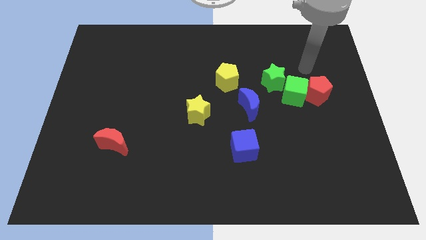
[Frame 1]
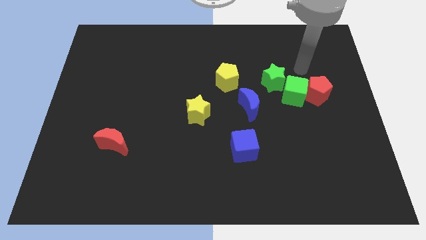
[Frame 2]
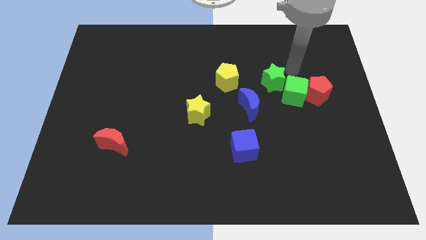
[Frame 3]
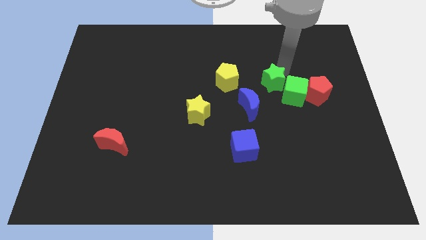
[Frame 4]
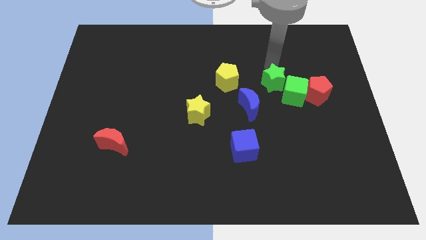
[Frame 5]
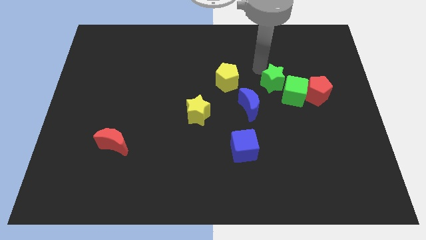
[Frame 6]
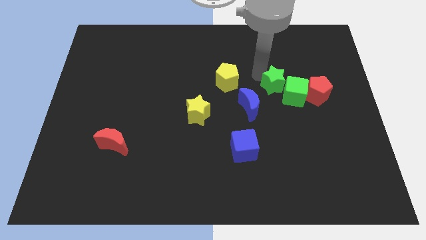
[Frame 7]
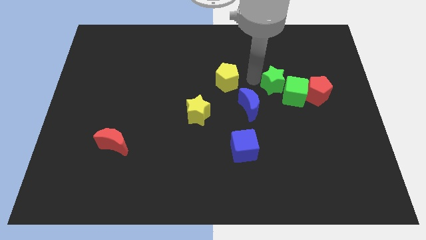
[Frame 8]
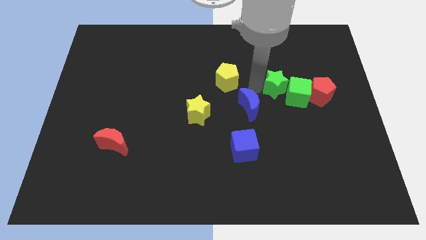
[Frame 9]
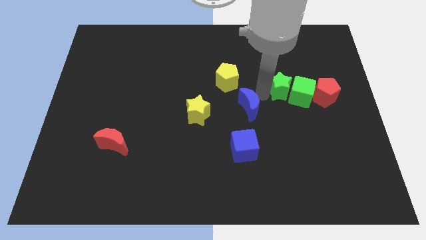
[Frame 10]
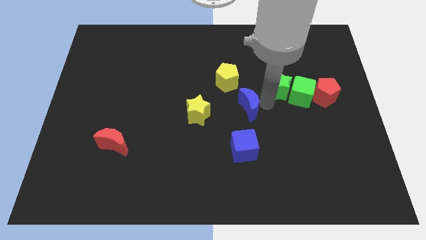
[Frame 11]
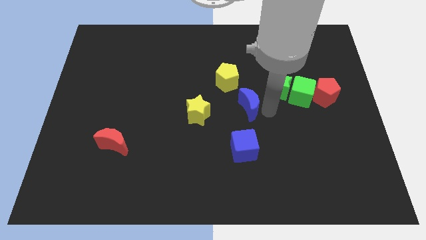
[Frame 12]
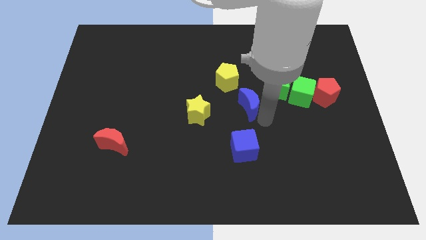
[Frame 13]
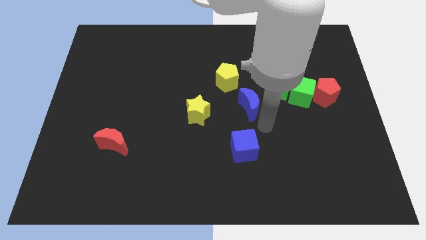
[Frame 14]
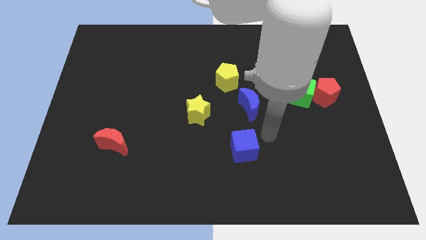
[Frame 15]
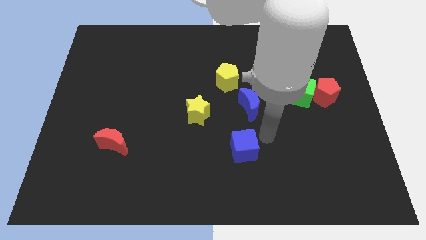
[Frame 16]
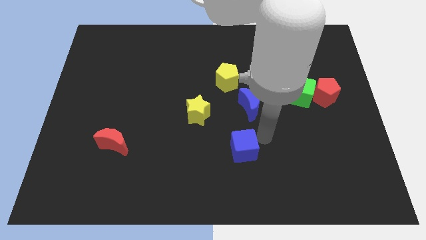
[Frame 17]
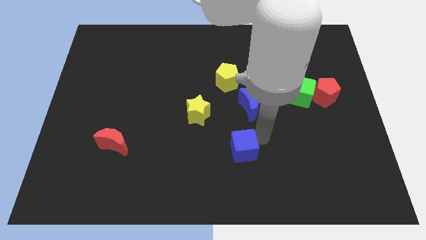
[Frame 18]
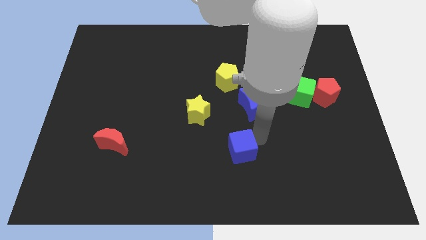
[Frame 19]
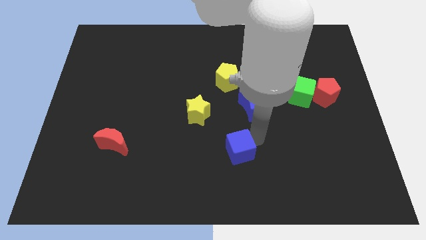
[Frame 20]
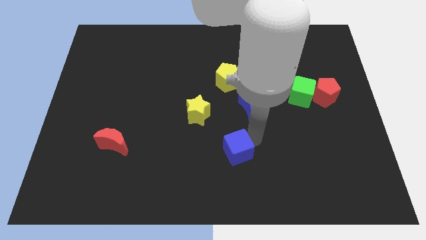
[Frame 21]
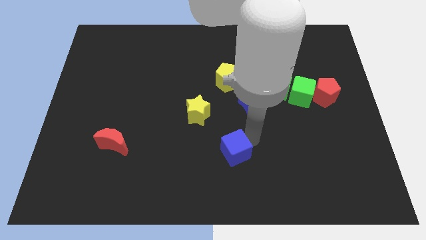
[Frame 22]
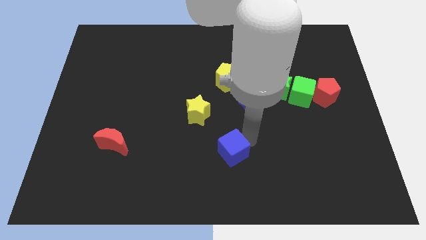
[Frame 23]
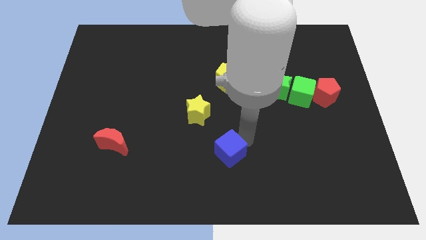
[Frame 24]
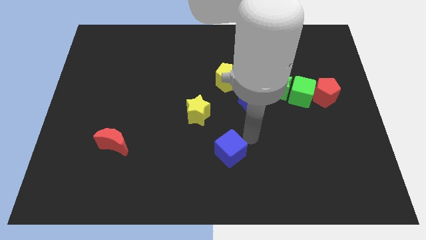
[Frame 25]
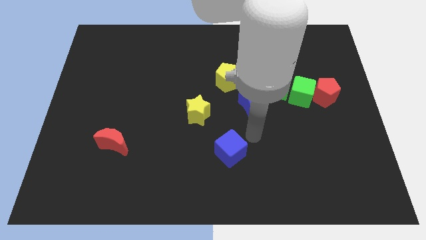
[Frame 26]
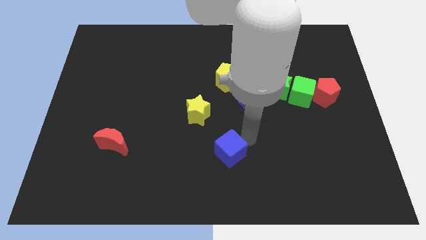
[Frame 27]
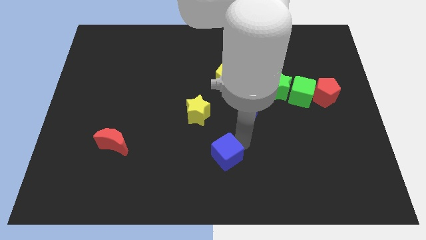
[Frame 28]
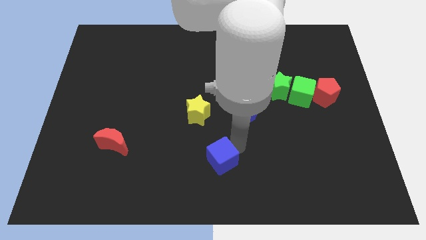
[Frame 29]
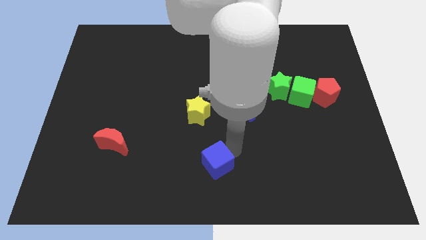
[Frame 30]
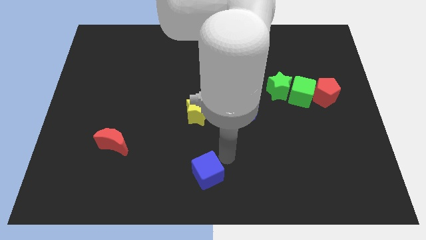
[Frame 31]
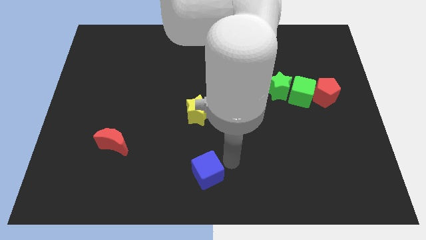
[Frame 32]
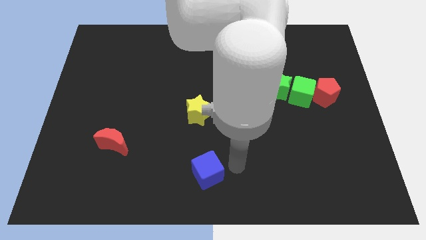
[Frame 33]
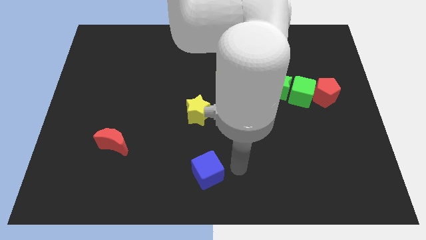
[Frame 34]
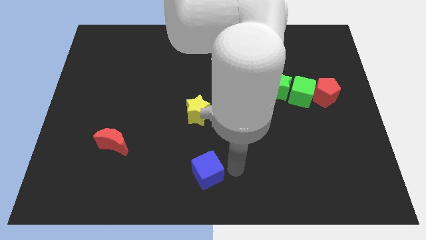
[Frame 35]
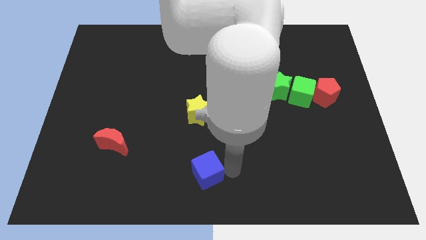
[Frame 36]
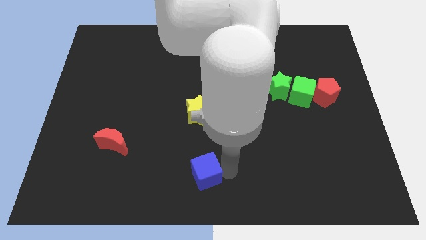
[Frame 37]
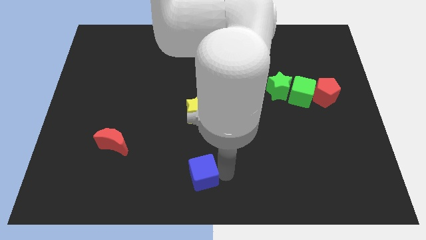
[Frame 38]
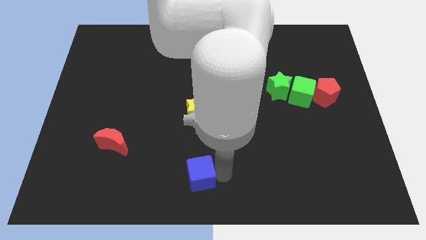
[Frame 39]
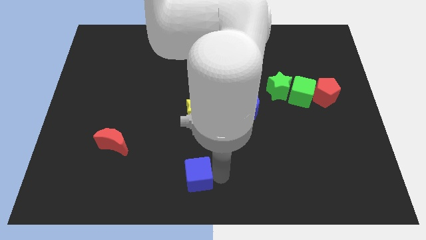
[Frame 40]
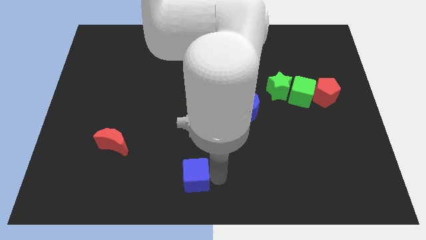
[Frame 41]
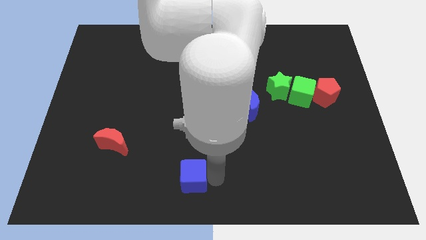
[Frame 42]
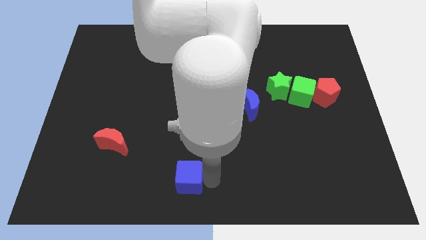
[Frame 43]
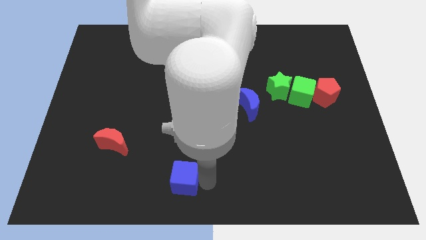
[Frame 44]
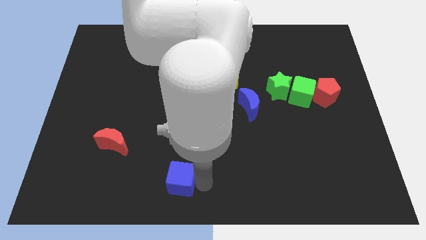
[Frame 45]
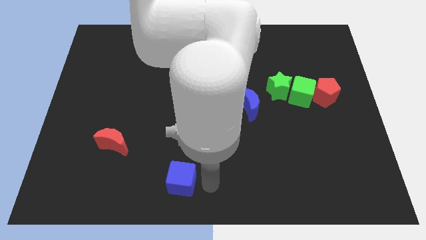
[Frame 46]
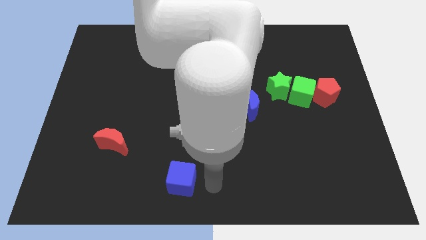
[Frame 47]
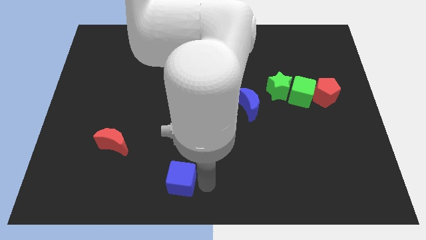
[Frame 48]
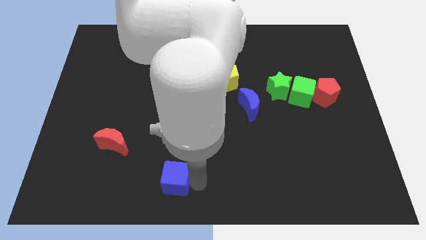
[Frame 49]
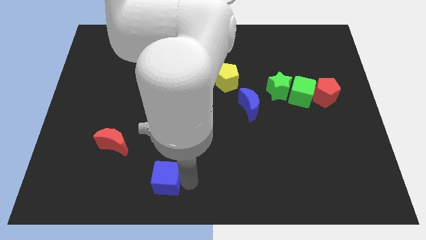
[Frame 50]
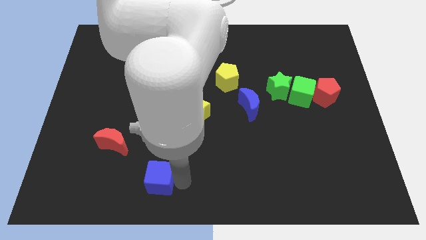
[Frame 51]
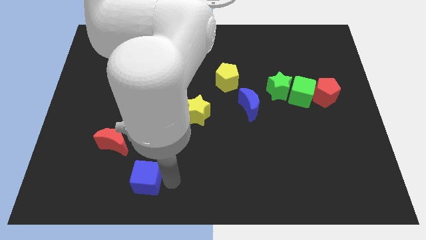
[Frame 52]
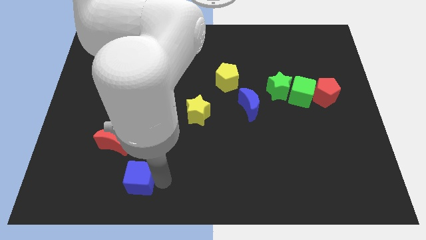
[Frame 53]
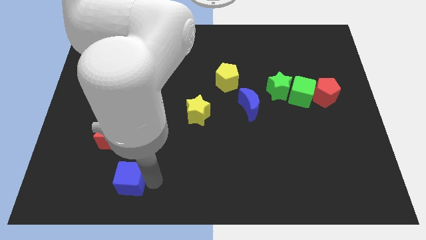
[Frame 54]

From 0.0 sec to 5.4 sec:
move the blue cube left

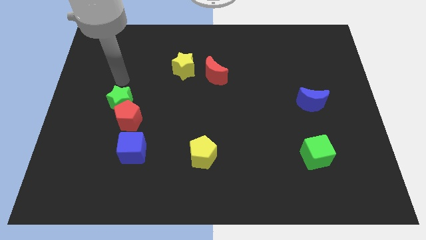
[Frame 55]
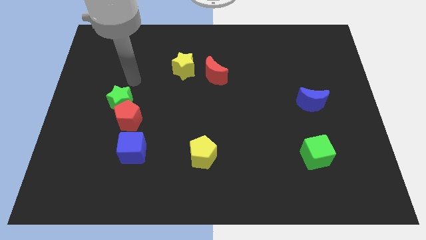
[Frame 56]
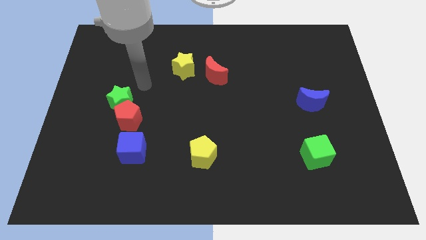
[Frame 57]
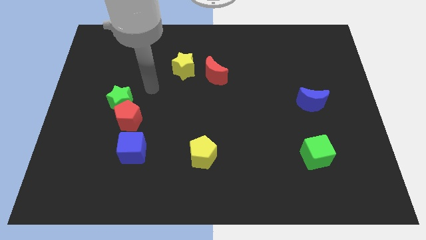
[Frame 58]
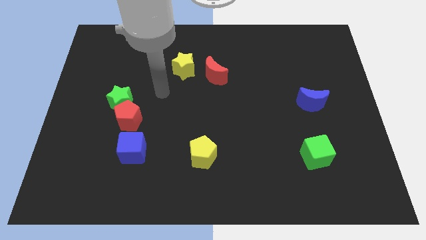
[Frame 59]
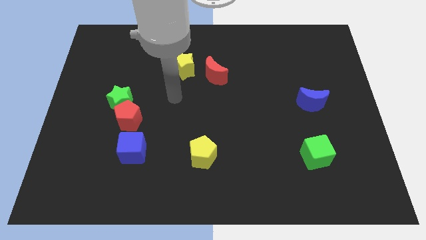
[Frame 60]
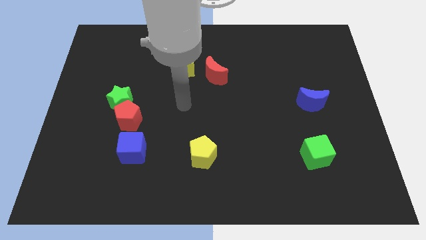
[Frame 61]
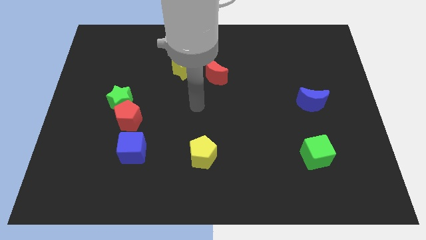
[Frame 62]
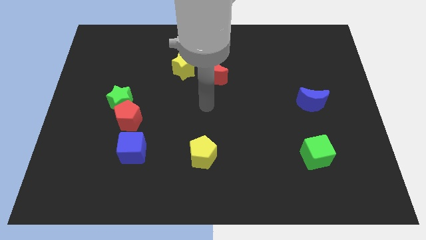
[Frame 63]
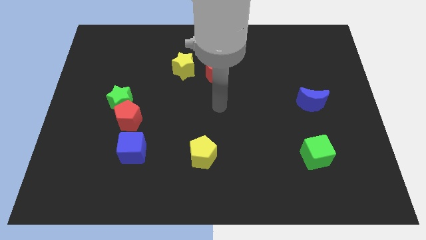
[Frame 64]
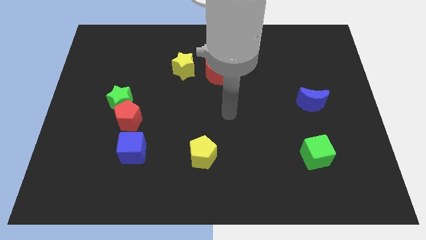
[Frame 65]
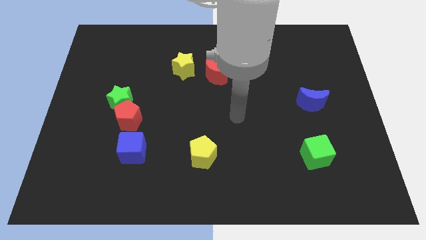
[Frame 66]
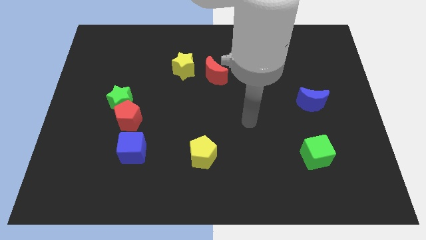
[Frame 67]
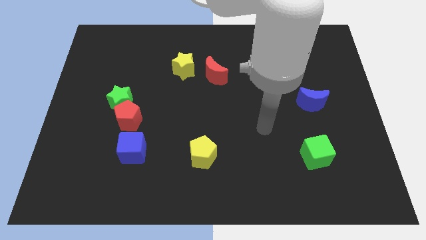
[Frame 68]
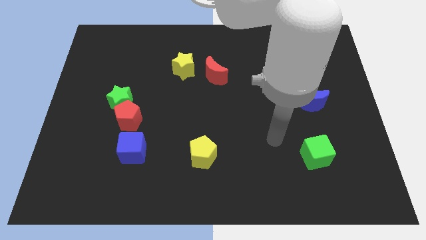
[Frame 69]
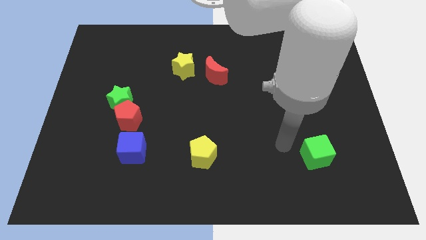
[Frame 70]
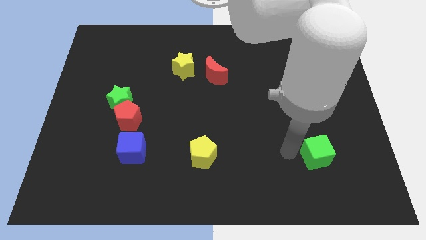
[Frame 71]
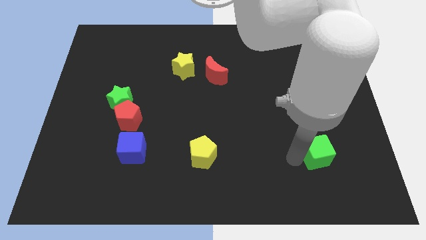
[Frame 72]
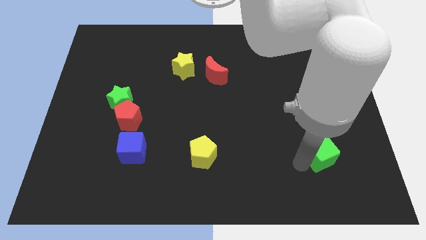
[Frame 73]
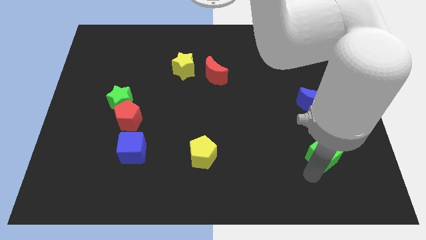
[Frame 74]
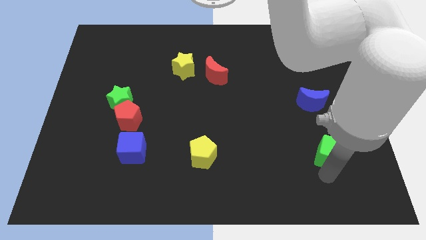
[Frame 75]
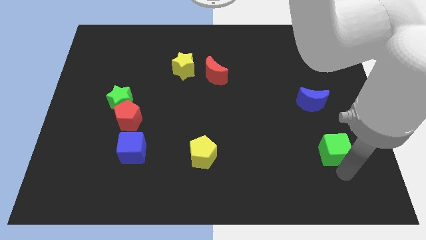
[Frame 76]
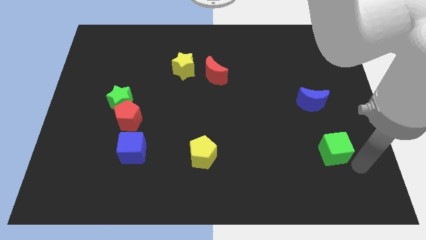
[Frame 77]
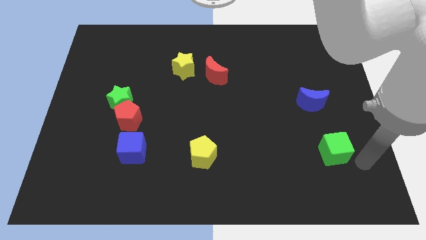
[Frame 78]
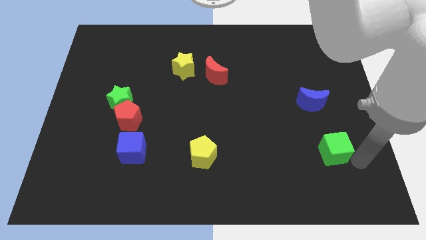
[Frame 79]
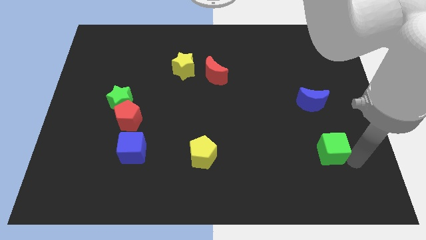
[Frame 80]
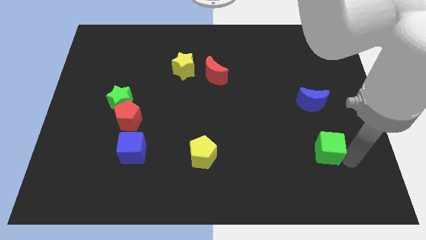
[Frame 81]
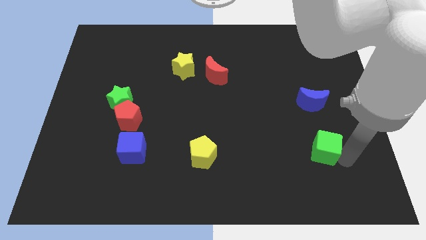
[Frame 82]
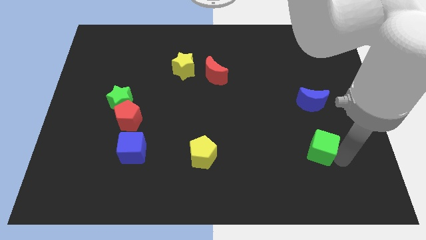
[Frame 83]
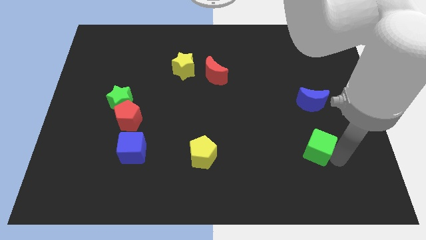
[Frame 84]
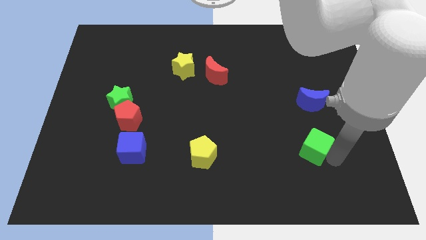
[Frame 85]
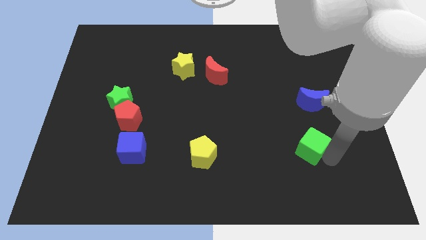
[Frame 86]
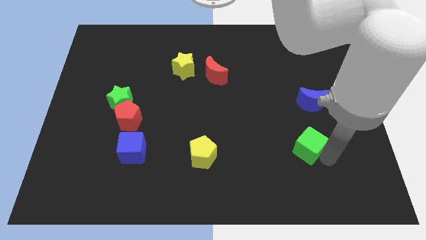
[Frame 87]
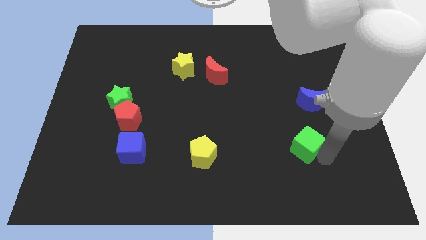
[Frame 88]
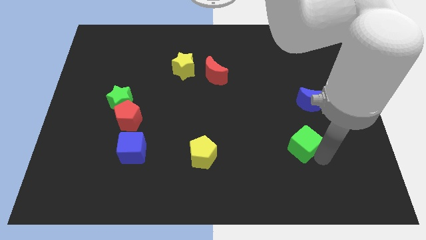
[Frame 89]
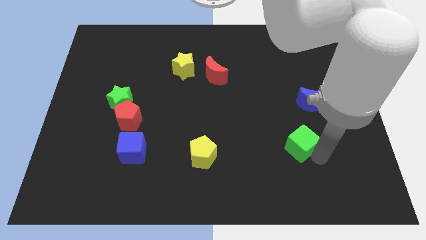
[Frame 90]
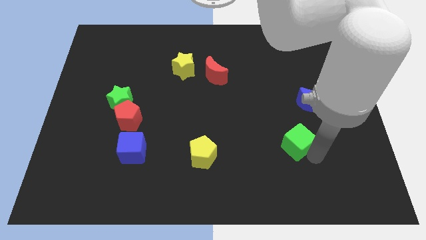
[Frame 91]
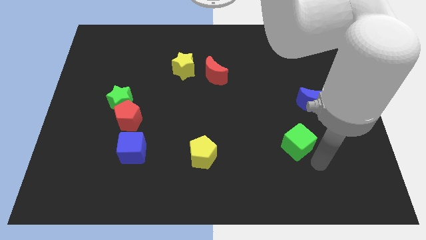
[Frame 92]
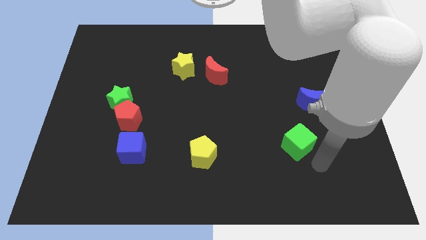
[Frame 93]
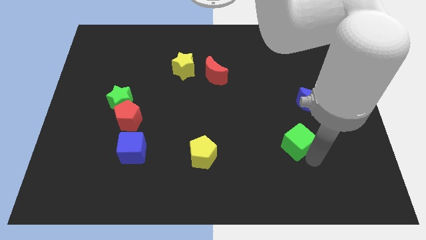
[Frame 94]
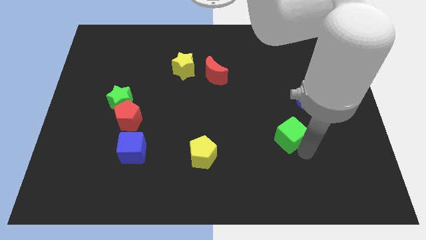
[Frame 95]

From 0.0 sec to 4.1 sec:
slightly slide the green cube up and then left
